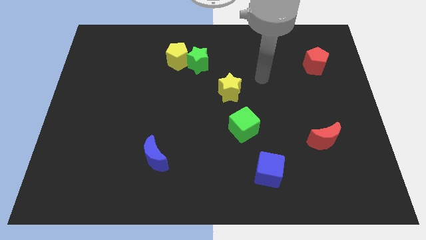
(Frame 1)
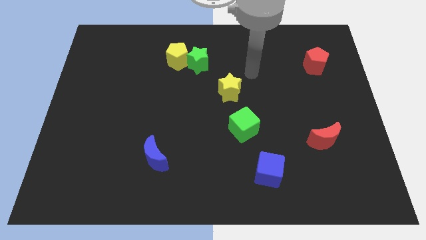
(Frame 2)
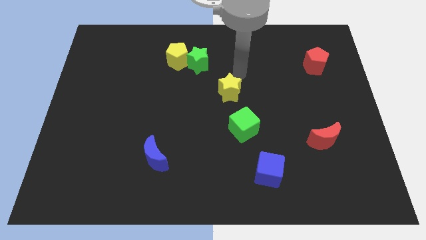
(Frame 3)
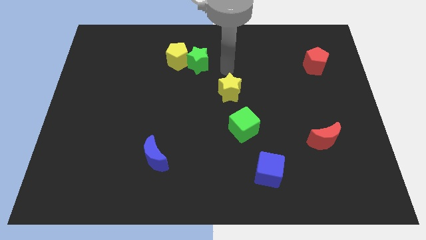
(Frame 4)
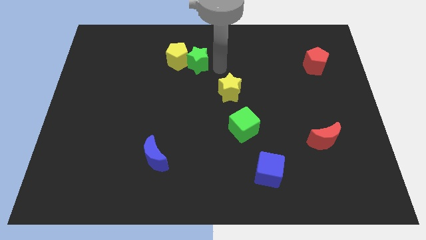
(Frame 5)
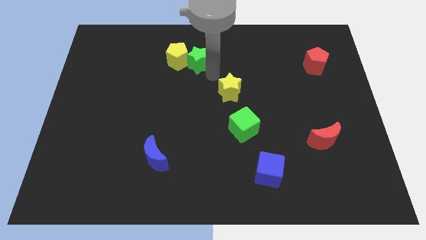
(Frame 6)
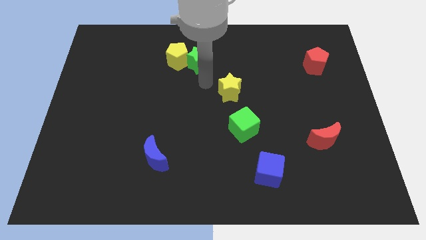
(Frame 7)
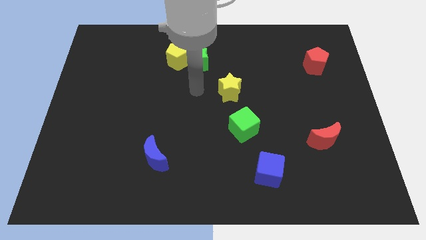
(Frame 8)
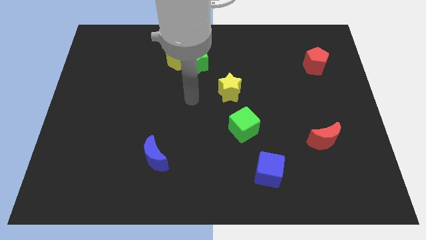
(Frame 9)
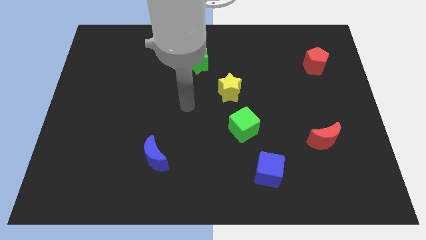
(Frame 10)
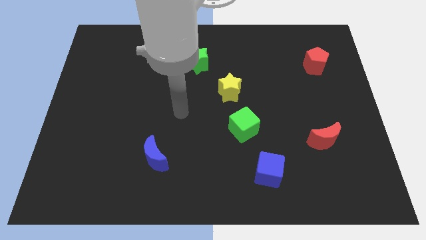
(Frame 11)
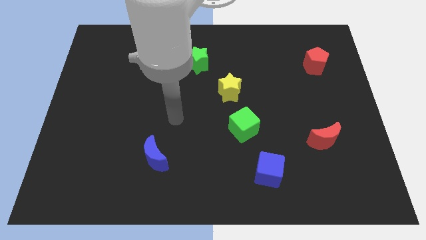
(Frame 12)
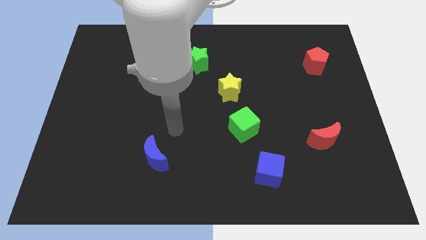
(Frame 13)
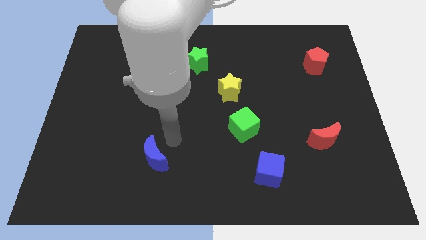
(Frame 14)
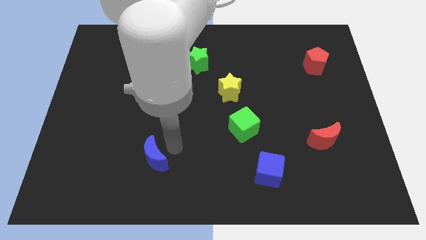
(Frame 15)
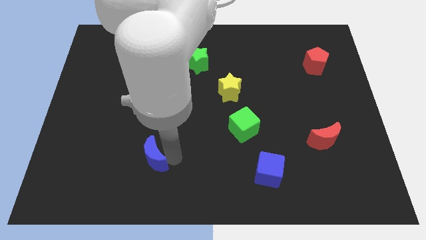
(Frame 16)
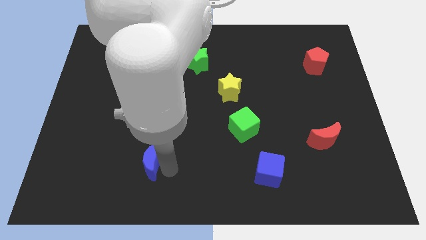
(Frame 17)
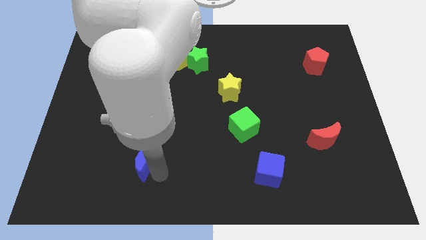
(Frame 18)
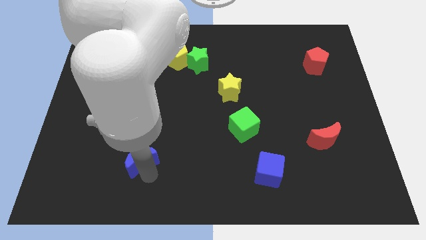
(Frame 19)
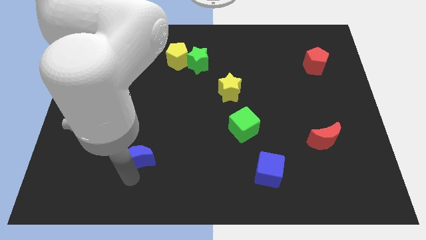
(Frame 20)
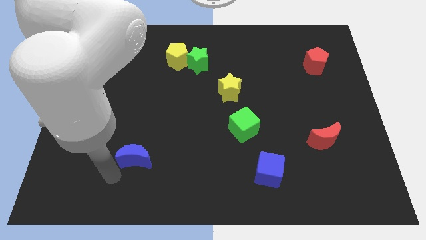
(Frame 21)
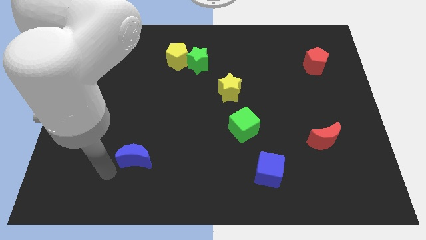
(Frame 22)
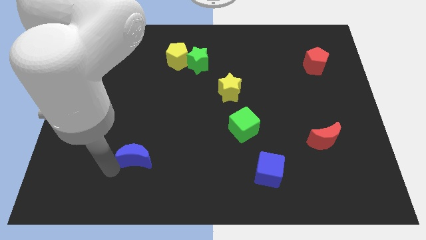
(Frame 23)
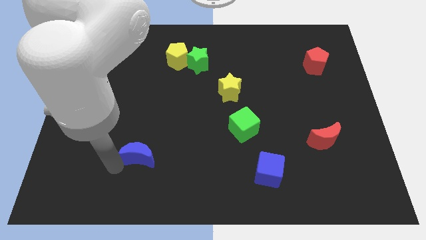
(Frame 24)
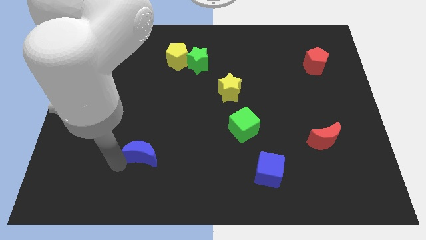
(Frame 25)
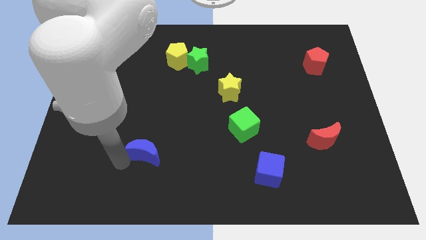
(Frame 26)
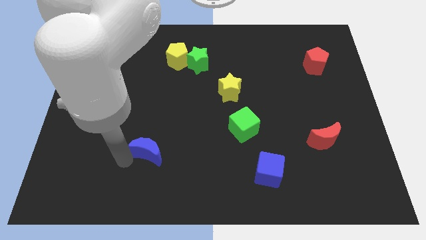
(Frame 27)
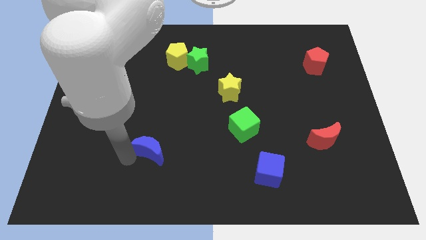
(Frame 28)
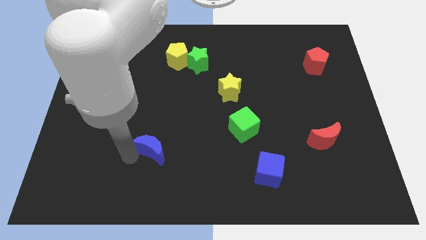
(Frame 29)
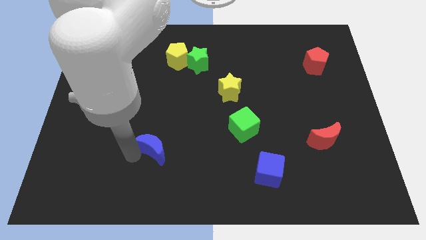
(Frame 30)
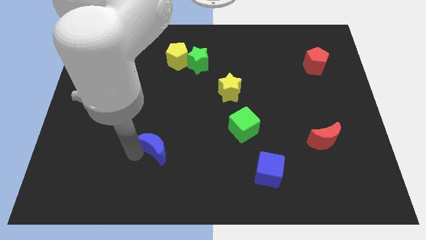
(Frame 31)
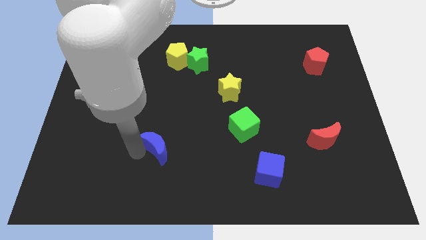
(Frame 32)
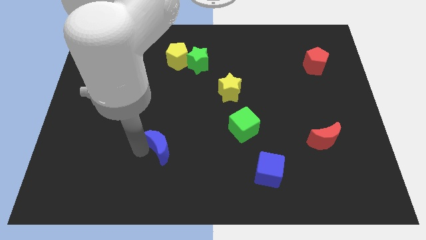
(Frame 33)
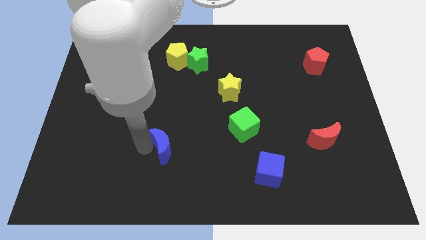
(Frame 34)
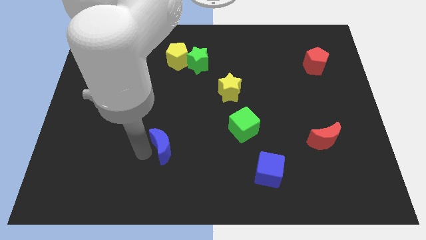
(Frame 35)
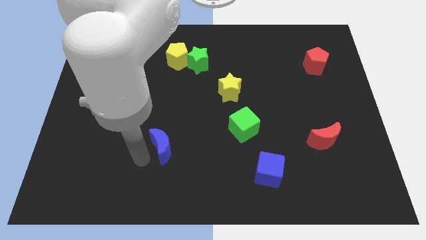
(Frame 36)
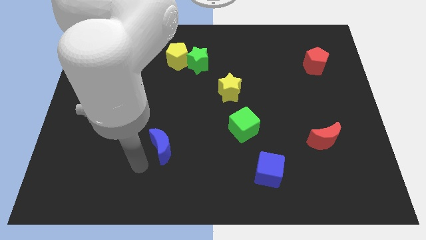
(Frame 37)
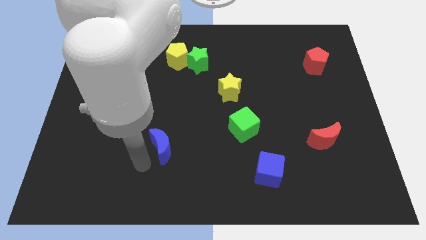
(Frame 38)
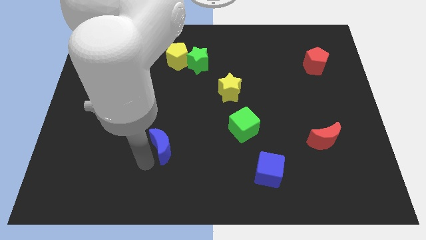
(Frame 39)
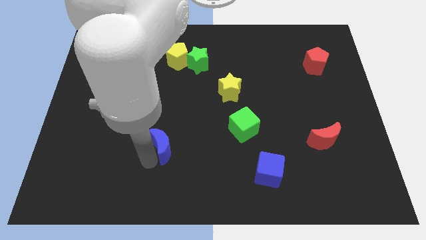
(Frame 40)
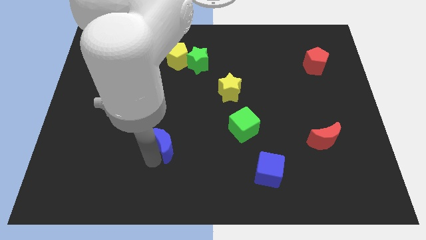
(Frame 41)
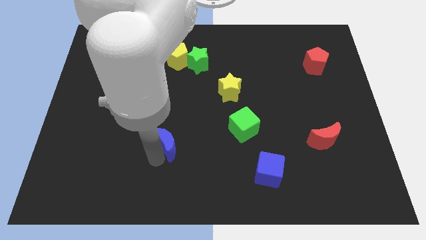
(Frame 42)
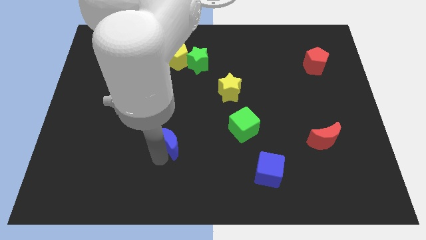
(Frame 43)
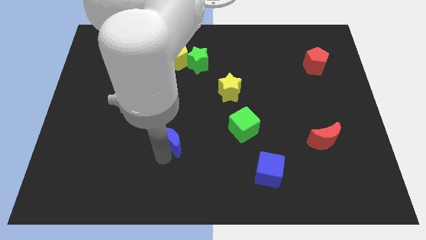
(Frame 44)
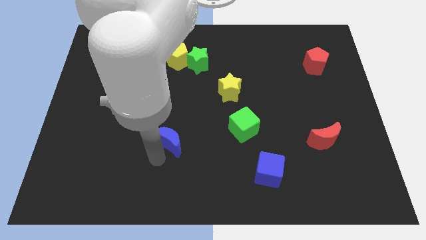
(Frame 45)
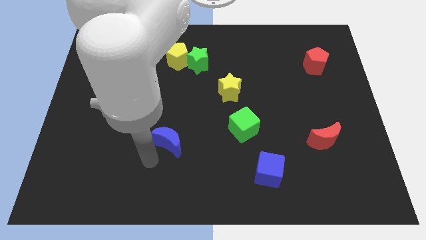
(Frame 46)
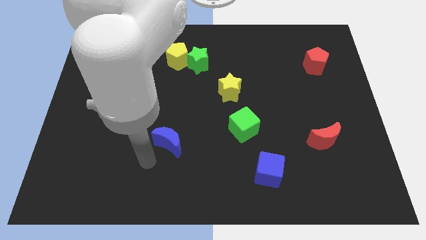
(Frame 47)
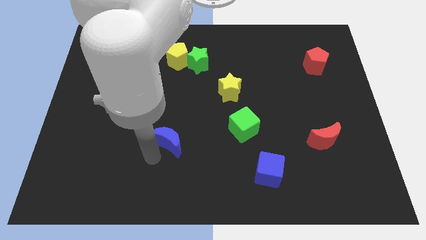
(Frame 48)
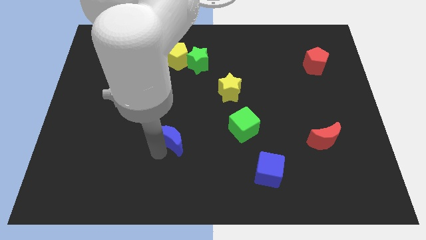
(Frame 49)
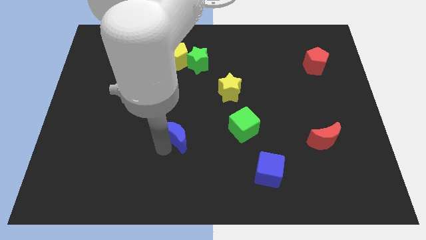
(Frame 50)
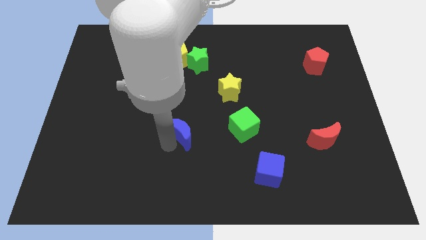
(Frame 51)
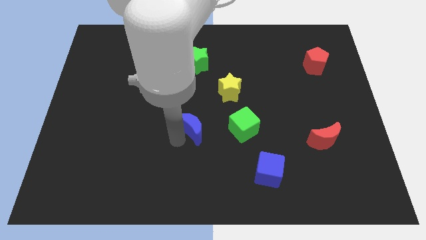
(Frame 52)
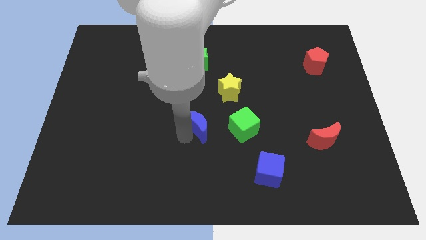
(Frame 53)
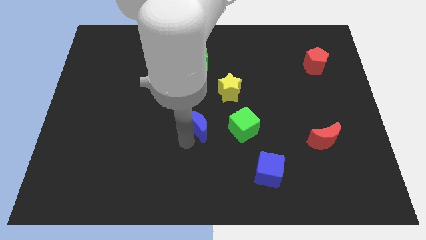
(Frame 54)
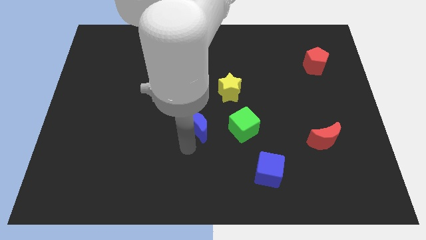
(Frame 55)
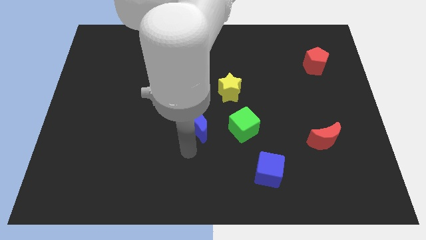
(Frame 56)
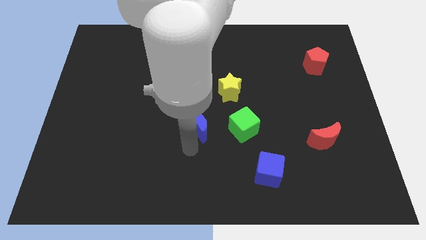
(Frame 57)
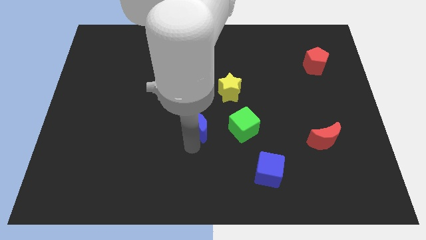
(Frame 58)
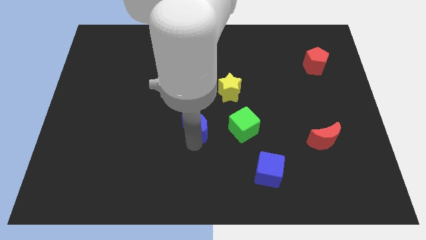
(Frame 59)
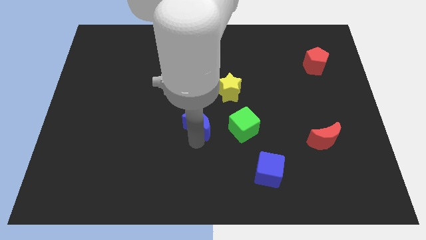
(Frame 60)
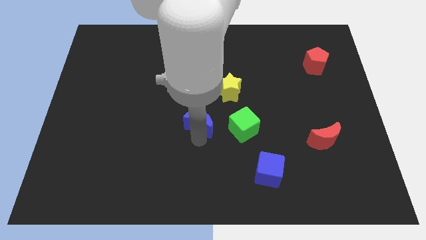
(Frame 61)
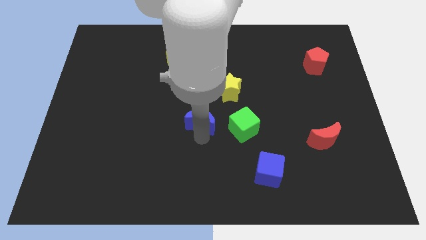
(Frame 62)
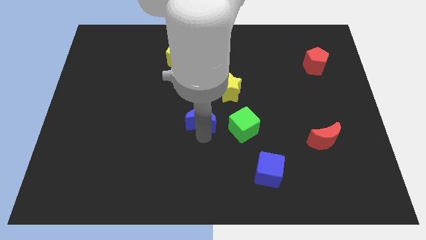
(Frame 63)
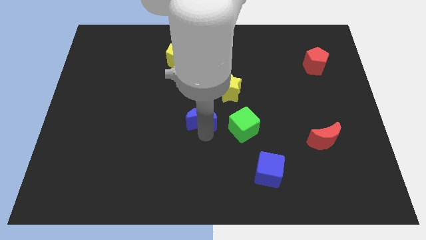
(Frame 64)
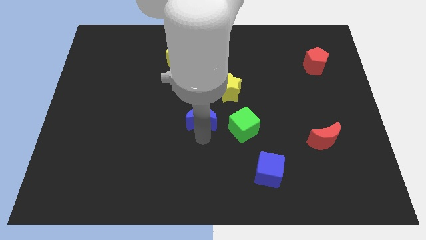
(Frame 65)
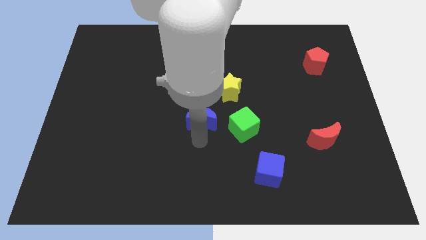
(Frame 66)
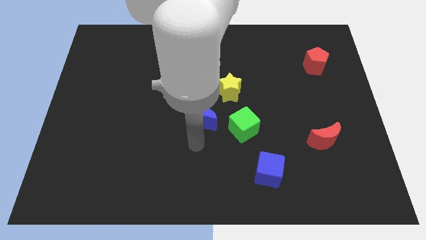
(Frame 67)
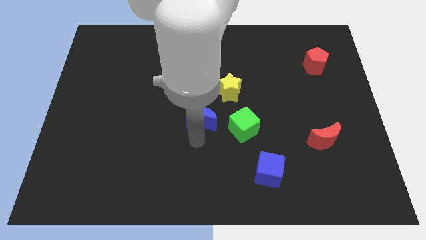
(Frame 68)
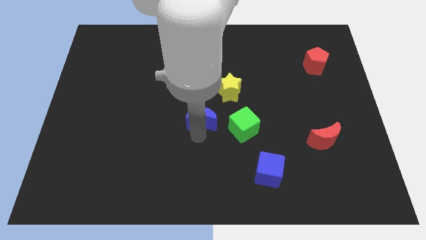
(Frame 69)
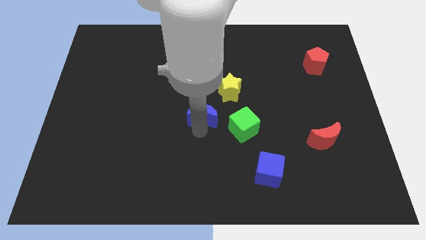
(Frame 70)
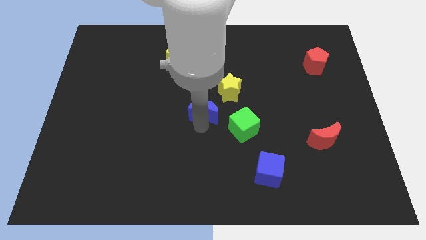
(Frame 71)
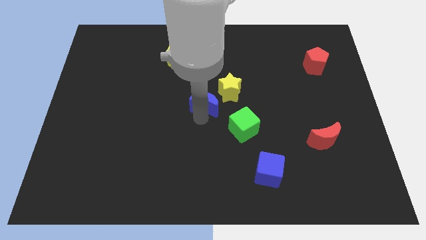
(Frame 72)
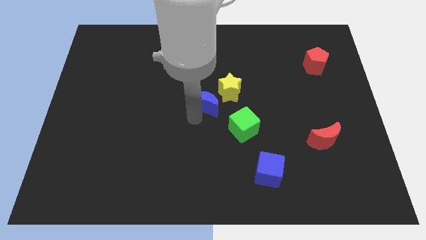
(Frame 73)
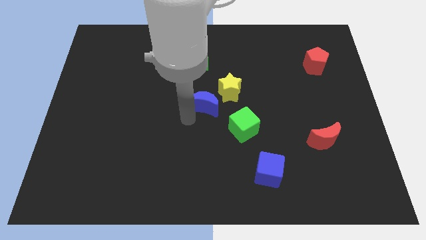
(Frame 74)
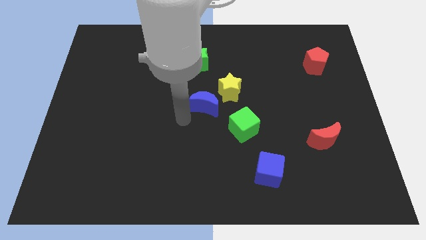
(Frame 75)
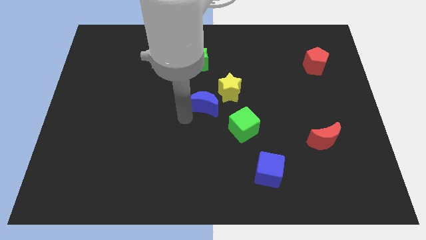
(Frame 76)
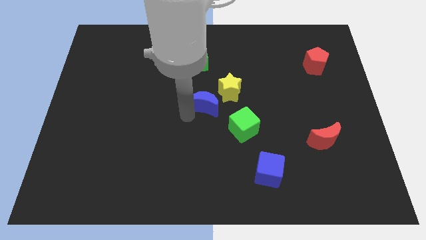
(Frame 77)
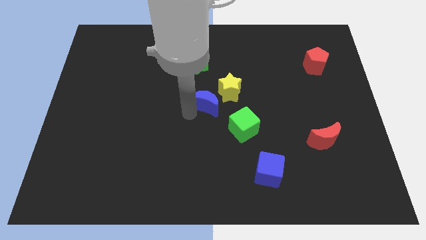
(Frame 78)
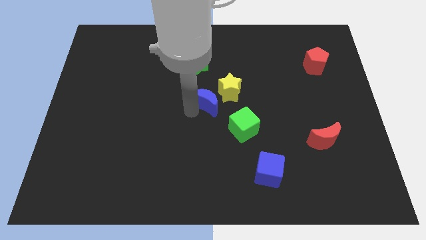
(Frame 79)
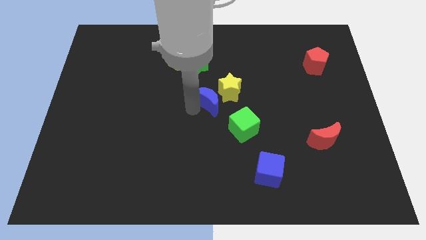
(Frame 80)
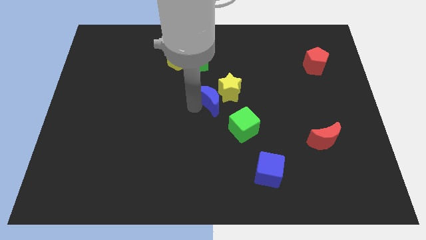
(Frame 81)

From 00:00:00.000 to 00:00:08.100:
push the blue moon next to the yellow star
